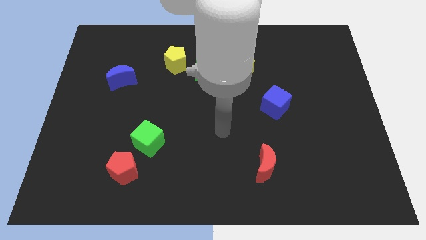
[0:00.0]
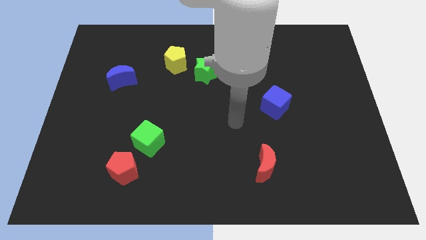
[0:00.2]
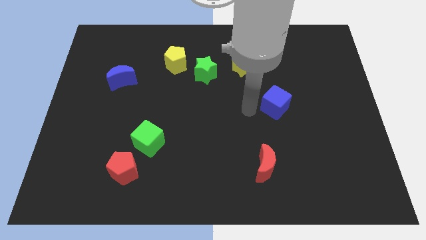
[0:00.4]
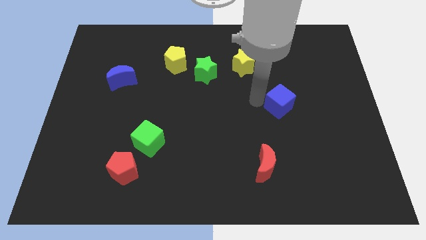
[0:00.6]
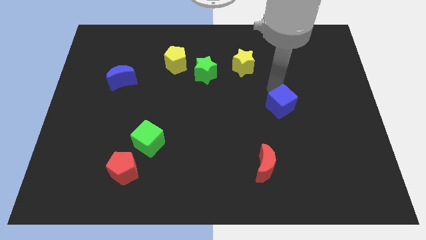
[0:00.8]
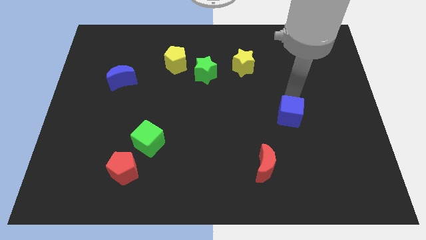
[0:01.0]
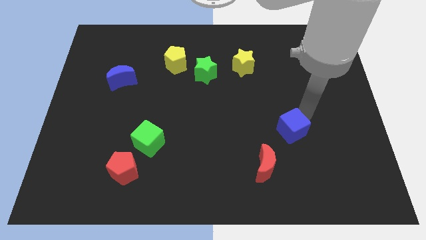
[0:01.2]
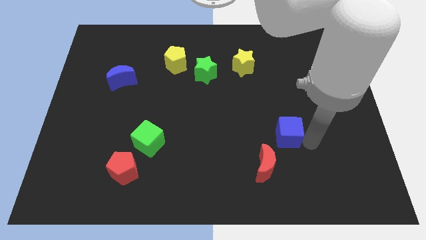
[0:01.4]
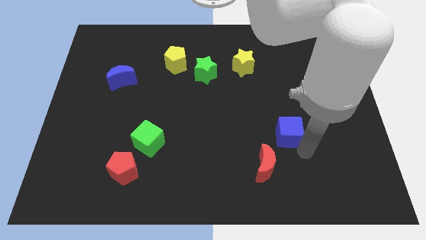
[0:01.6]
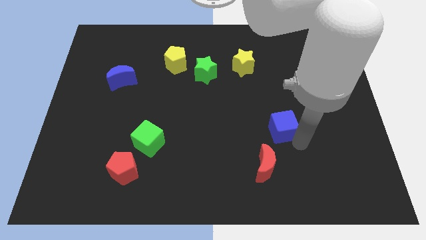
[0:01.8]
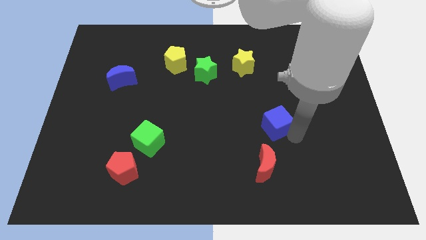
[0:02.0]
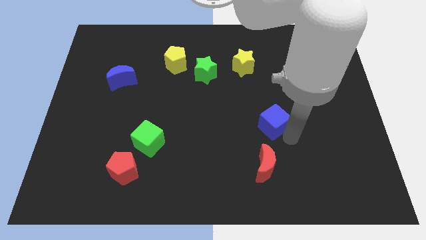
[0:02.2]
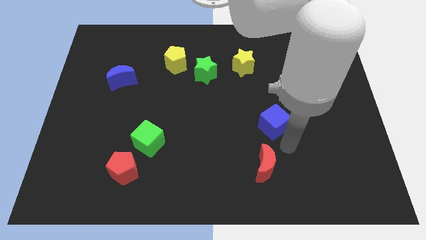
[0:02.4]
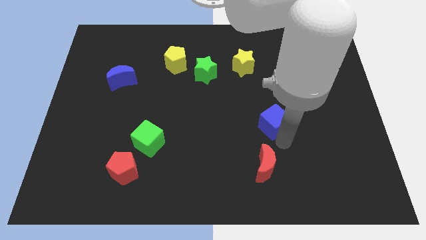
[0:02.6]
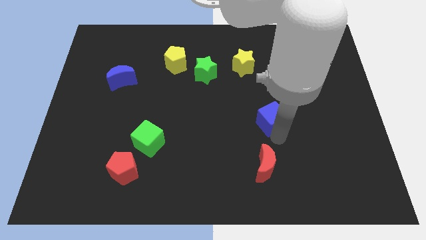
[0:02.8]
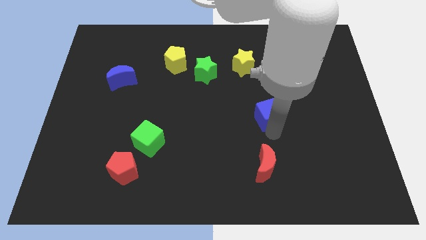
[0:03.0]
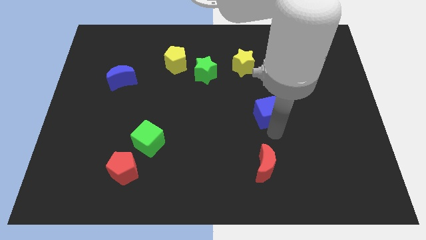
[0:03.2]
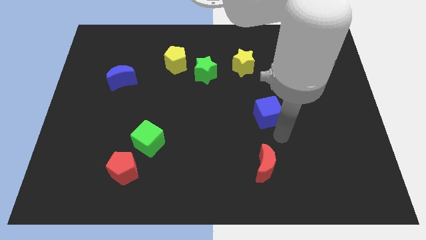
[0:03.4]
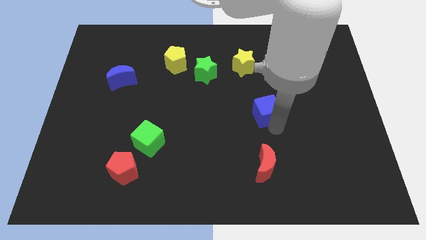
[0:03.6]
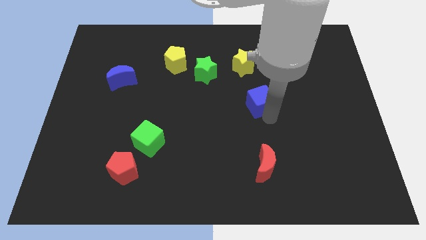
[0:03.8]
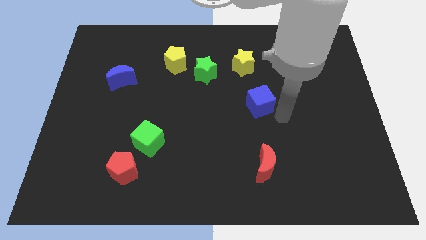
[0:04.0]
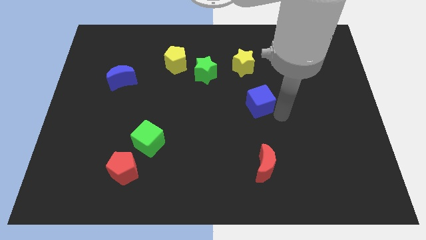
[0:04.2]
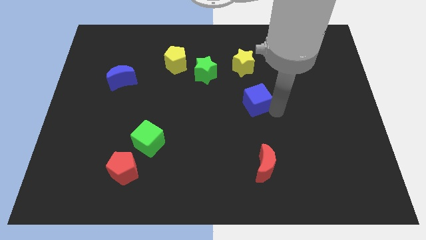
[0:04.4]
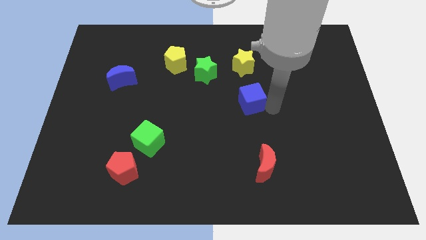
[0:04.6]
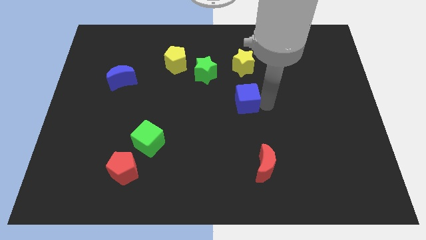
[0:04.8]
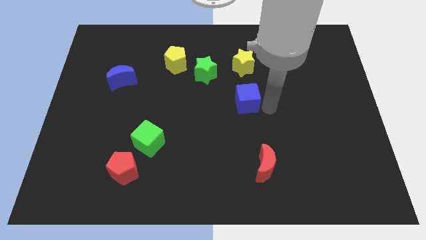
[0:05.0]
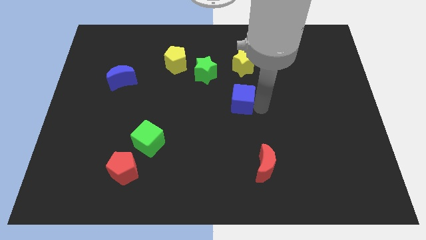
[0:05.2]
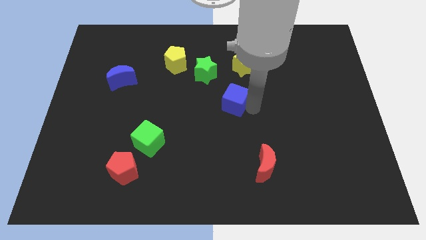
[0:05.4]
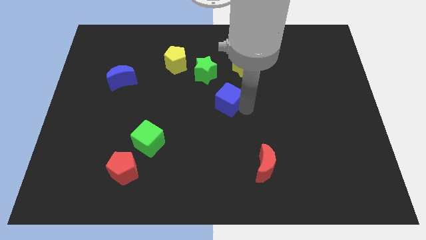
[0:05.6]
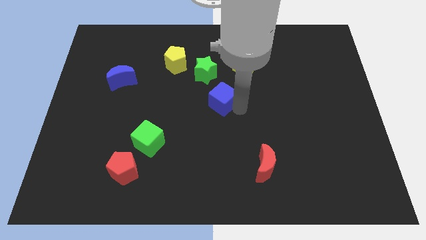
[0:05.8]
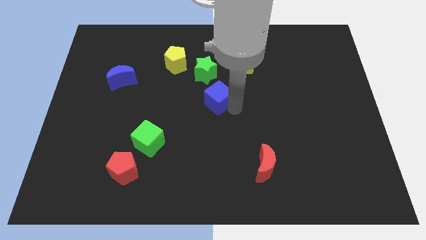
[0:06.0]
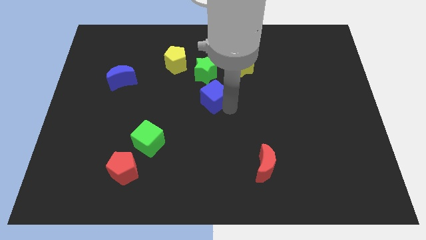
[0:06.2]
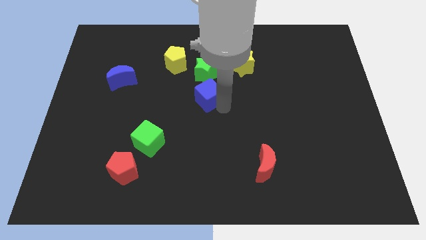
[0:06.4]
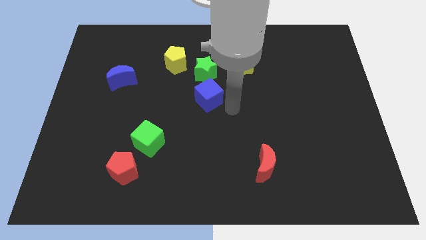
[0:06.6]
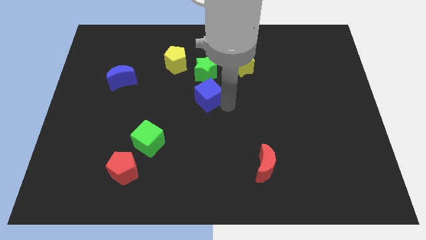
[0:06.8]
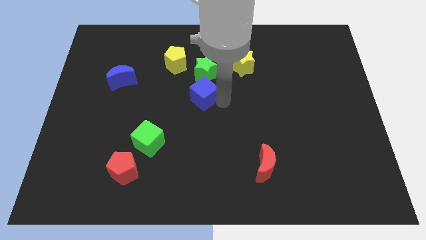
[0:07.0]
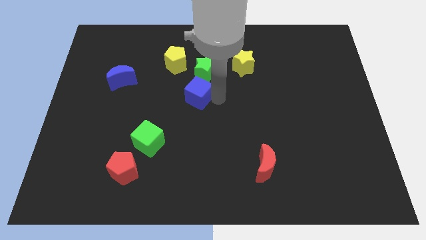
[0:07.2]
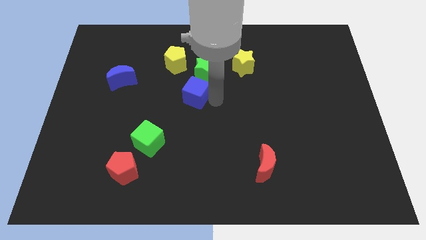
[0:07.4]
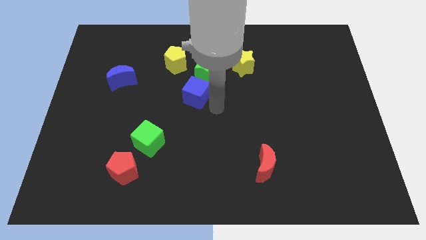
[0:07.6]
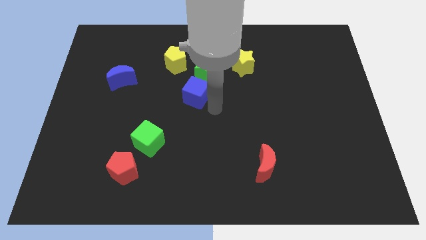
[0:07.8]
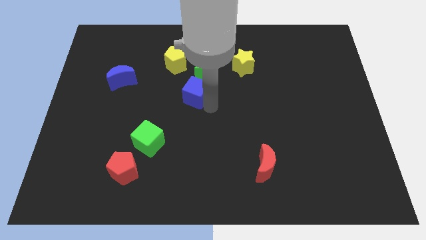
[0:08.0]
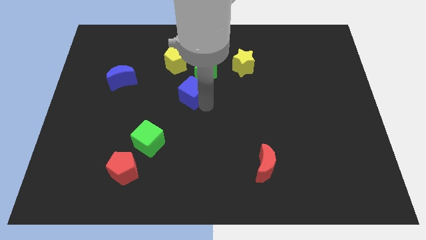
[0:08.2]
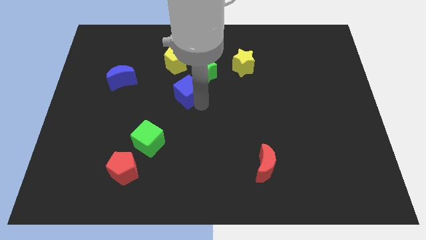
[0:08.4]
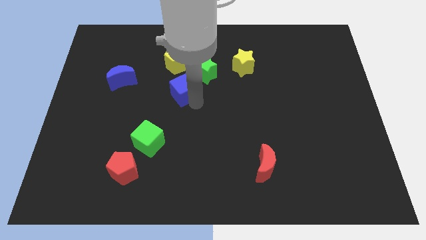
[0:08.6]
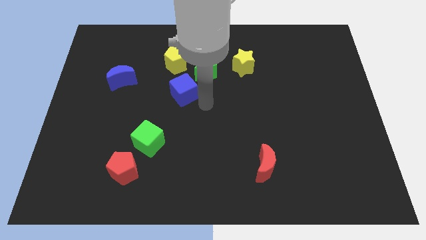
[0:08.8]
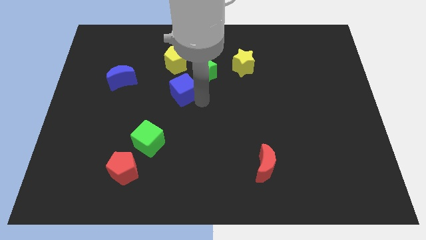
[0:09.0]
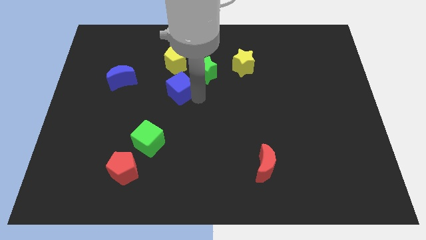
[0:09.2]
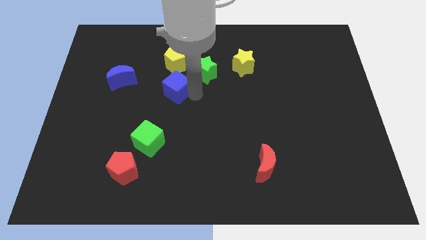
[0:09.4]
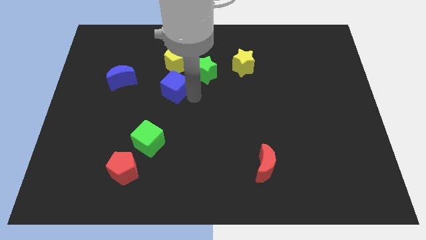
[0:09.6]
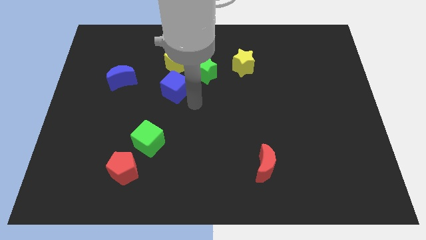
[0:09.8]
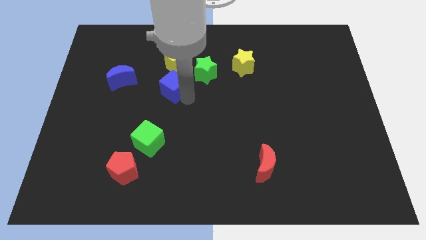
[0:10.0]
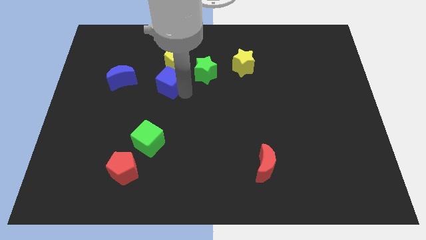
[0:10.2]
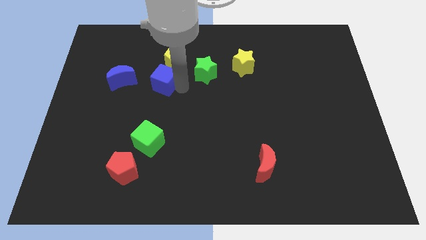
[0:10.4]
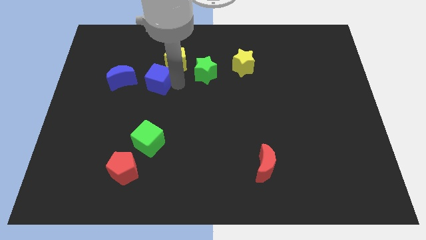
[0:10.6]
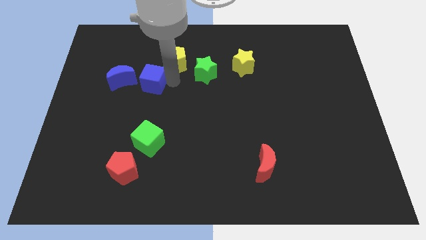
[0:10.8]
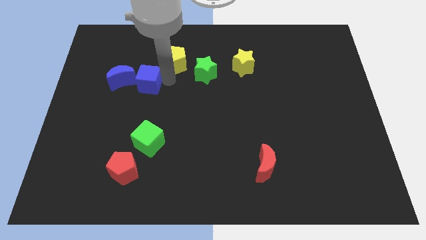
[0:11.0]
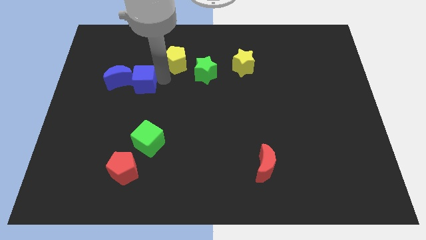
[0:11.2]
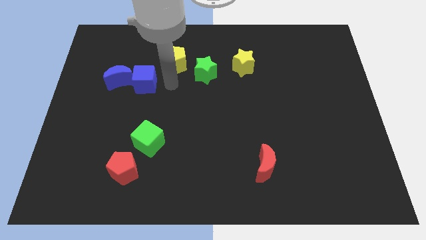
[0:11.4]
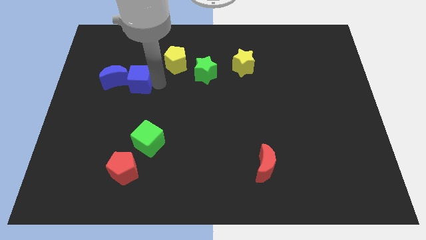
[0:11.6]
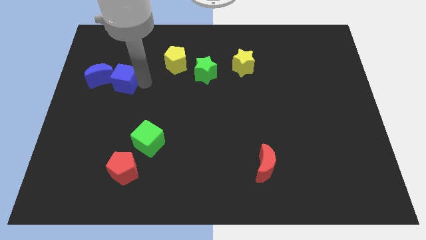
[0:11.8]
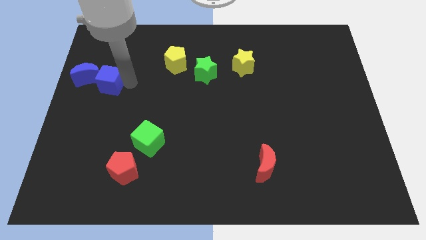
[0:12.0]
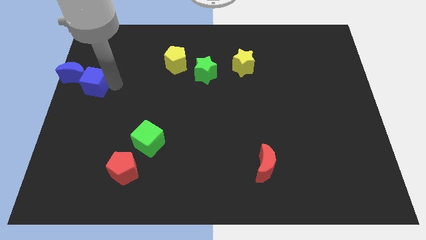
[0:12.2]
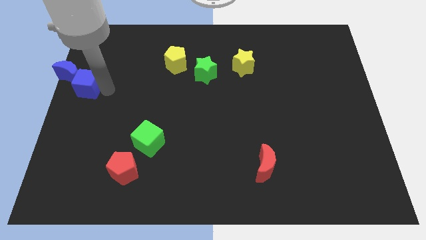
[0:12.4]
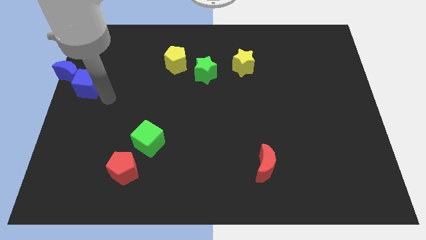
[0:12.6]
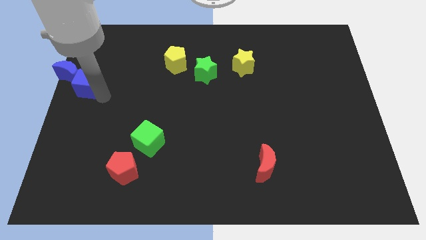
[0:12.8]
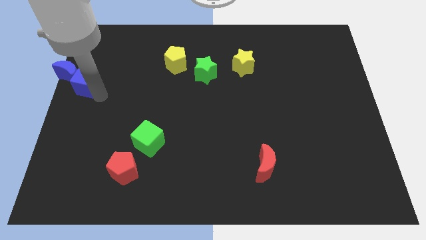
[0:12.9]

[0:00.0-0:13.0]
move the blue cube close to the blue moon

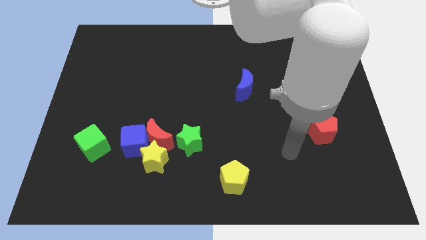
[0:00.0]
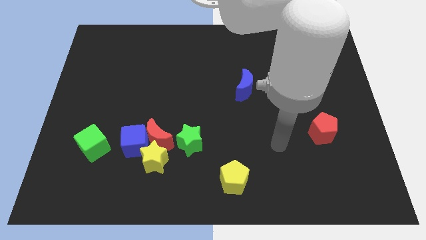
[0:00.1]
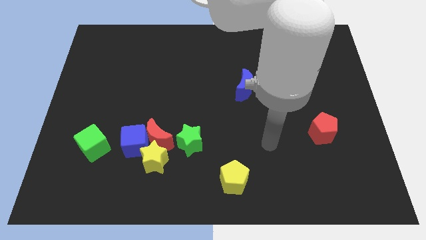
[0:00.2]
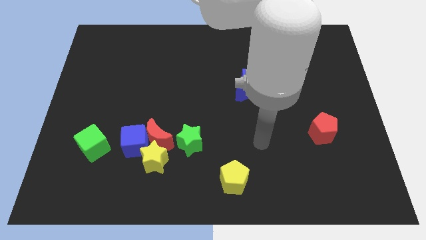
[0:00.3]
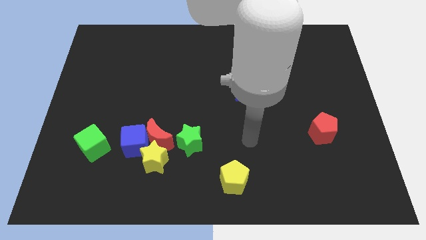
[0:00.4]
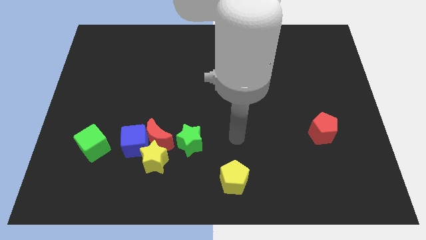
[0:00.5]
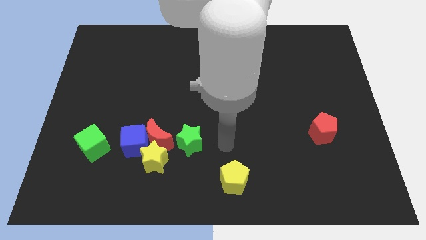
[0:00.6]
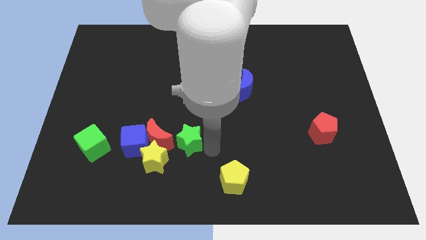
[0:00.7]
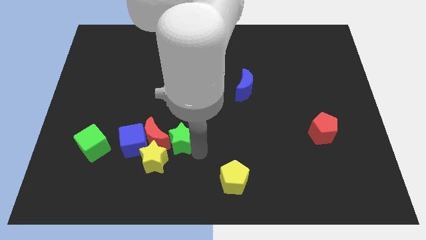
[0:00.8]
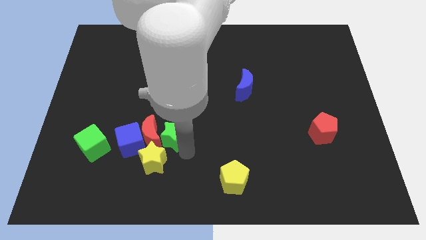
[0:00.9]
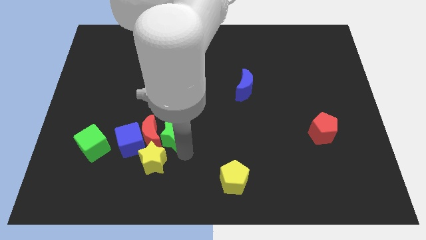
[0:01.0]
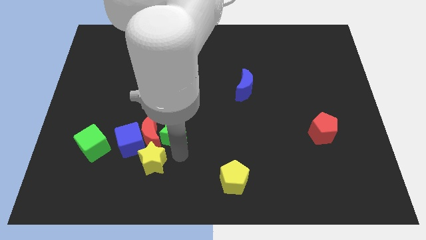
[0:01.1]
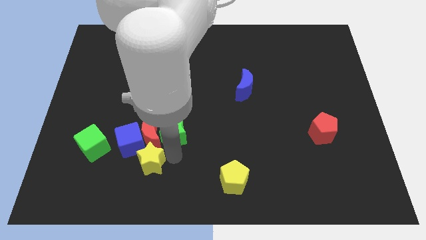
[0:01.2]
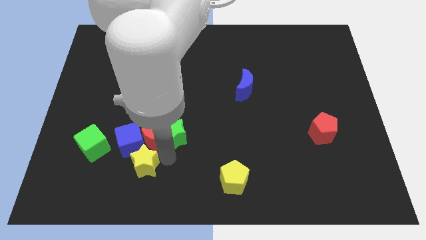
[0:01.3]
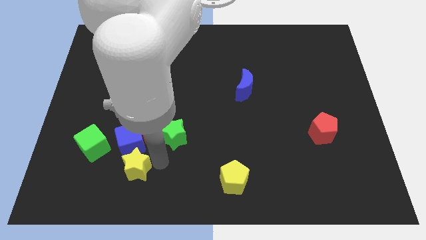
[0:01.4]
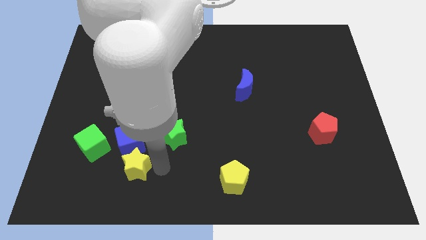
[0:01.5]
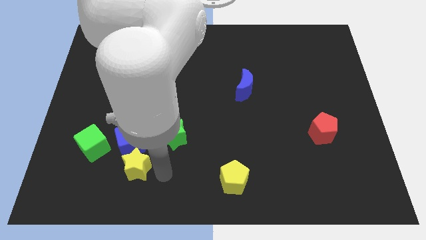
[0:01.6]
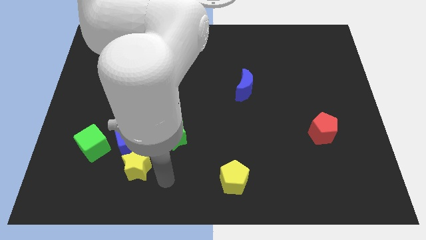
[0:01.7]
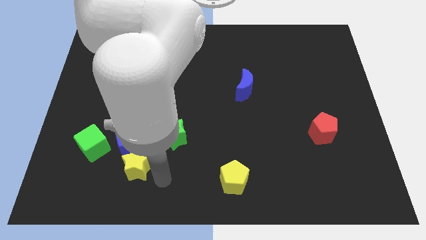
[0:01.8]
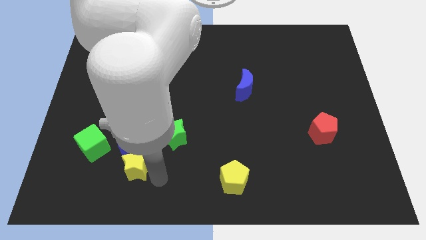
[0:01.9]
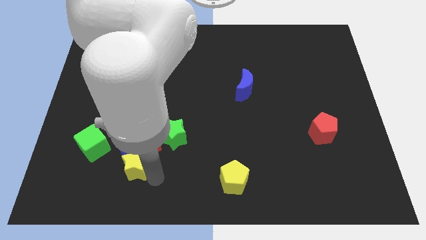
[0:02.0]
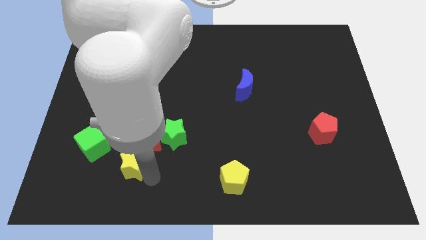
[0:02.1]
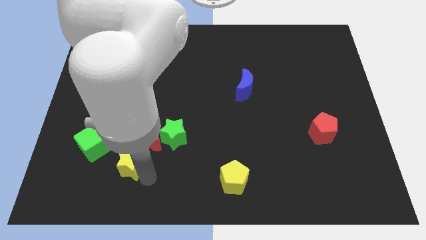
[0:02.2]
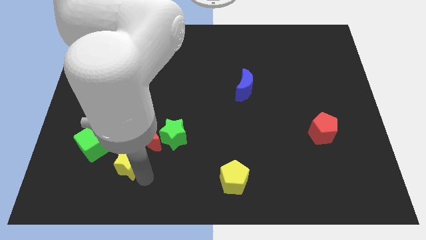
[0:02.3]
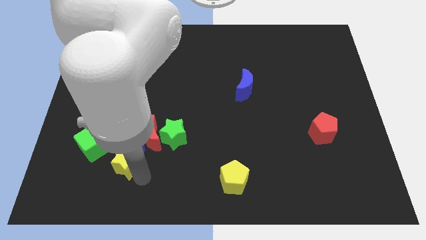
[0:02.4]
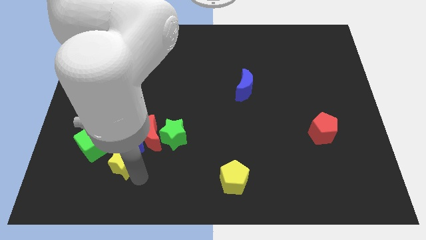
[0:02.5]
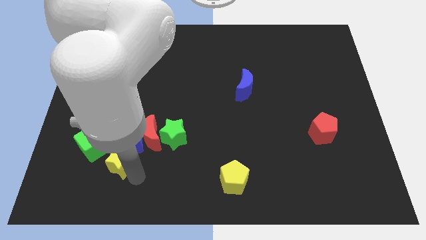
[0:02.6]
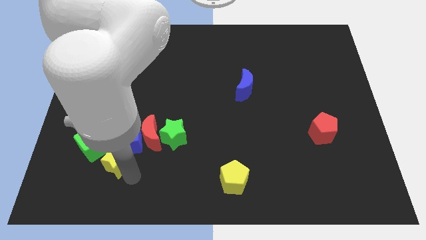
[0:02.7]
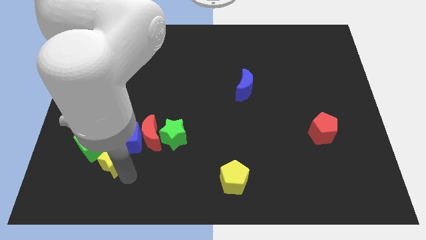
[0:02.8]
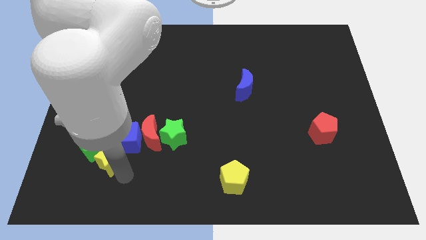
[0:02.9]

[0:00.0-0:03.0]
push the yellow star to the green cube
